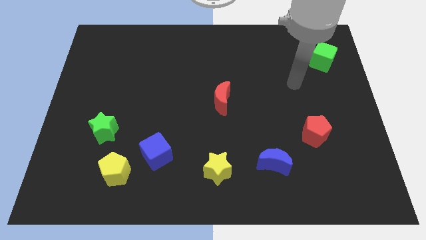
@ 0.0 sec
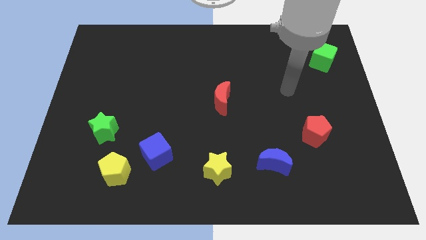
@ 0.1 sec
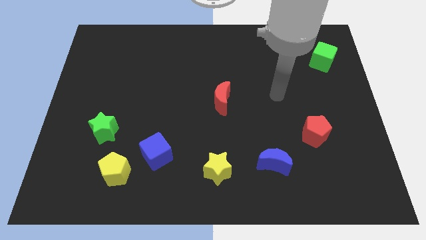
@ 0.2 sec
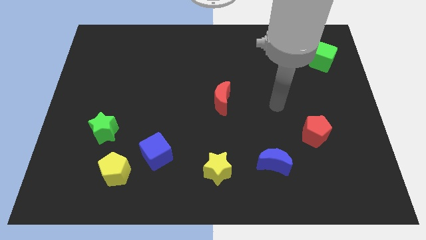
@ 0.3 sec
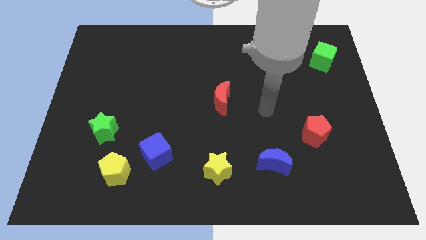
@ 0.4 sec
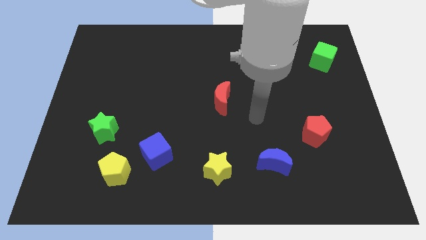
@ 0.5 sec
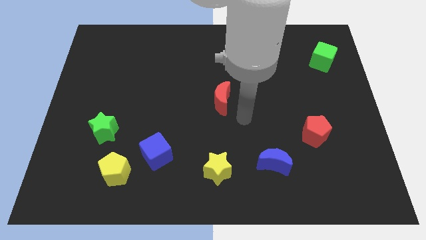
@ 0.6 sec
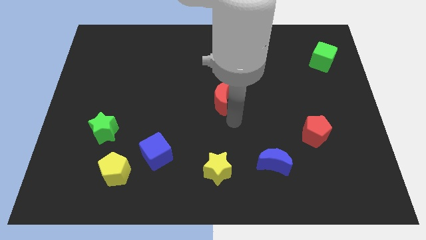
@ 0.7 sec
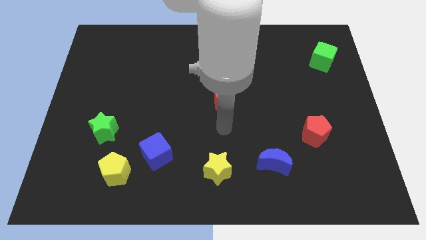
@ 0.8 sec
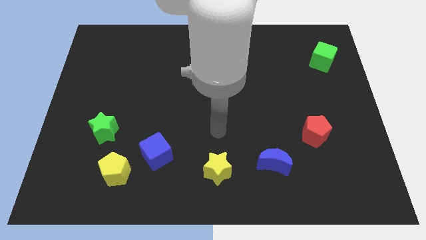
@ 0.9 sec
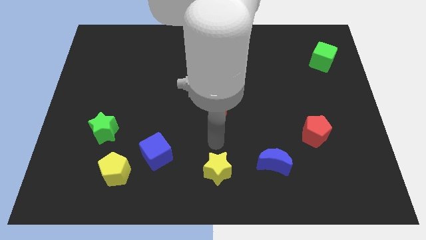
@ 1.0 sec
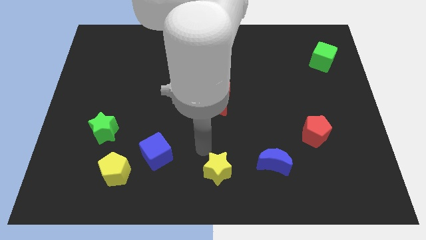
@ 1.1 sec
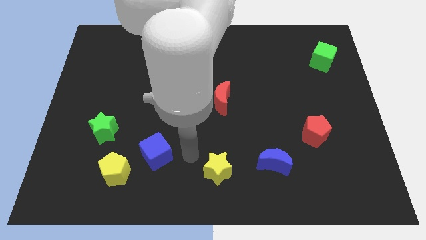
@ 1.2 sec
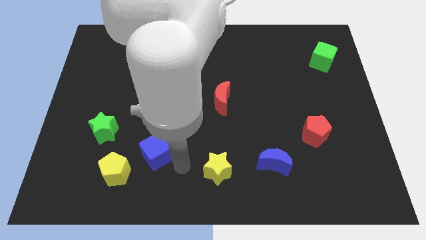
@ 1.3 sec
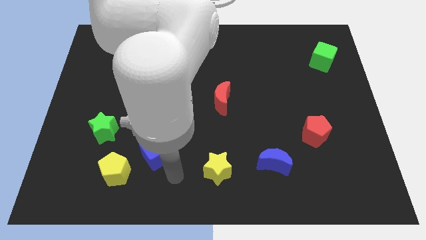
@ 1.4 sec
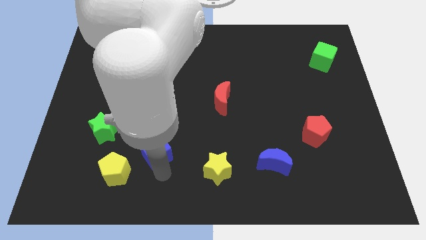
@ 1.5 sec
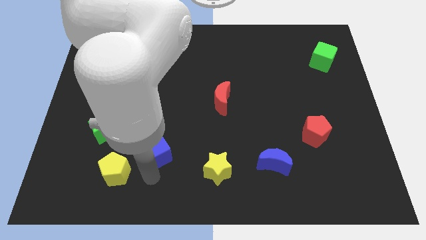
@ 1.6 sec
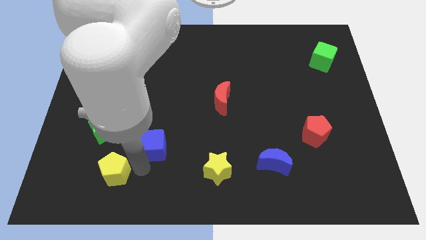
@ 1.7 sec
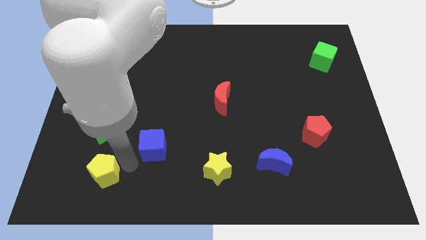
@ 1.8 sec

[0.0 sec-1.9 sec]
pull the blue cube apart from the yellow pentagon

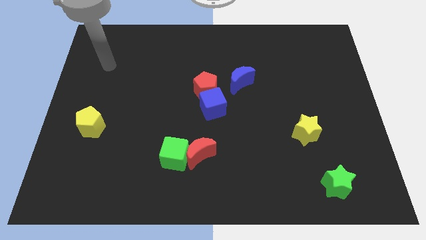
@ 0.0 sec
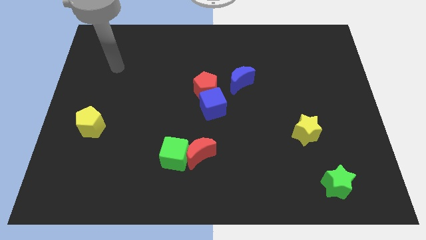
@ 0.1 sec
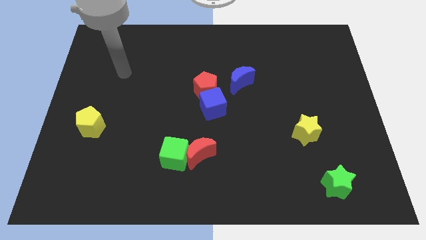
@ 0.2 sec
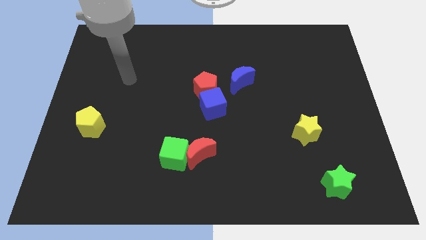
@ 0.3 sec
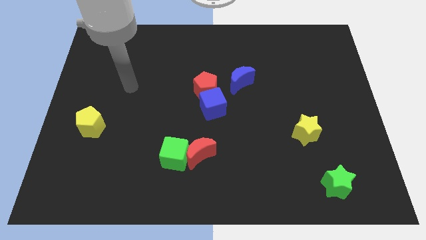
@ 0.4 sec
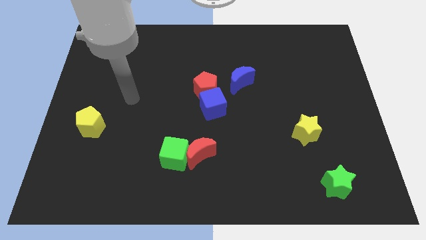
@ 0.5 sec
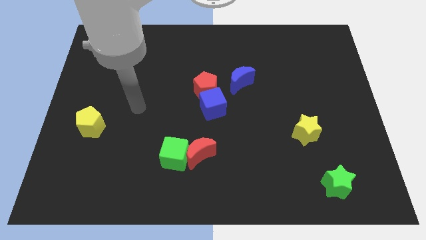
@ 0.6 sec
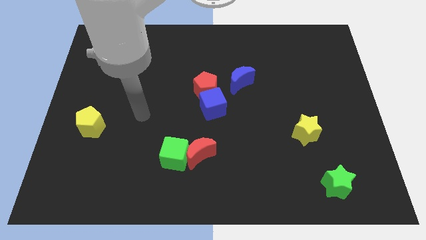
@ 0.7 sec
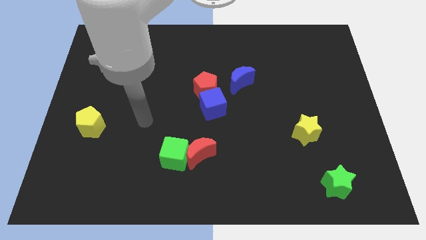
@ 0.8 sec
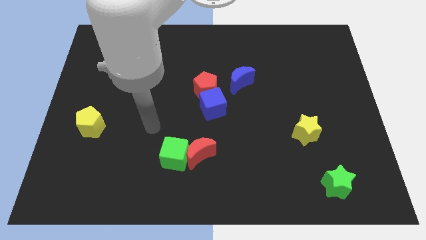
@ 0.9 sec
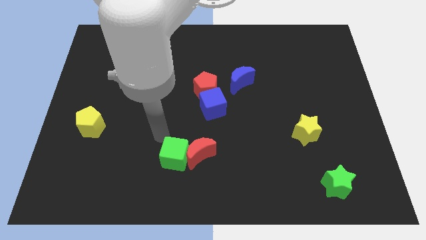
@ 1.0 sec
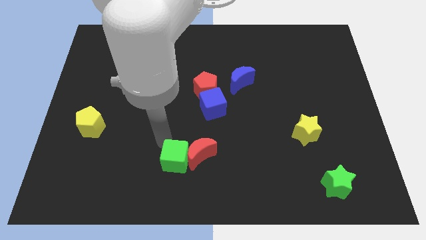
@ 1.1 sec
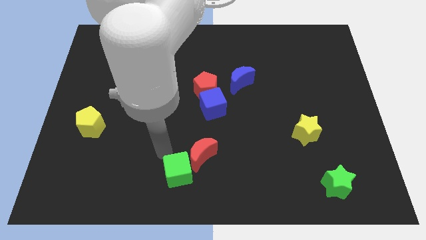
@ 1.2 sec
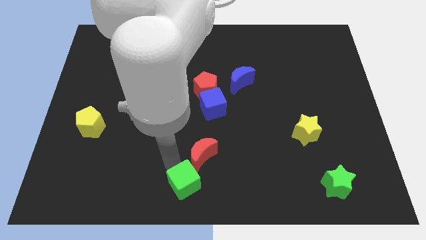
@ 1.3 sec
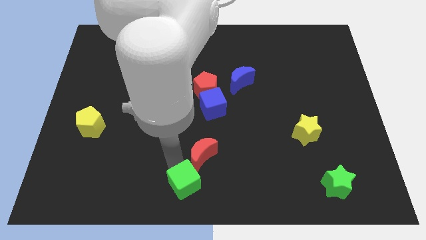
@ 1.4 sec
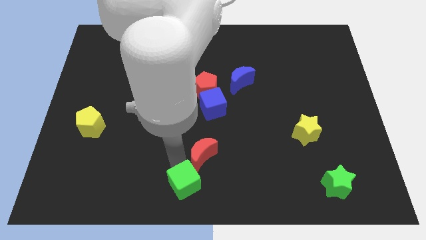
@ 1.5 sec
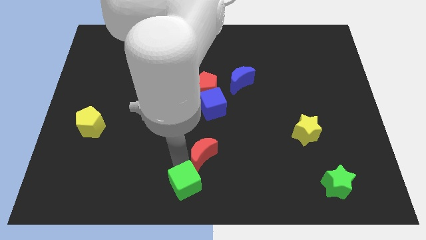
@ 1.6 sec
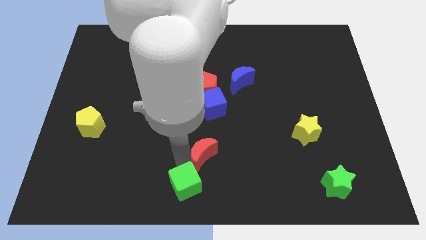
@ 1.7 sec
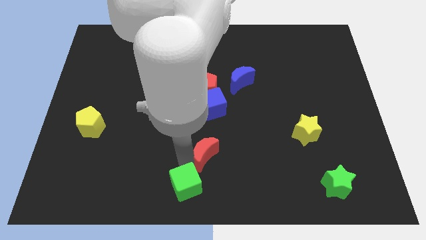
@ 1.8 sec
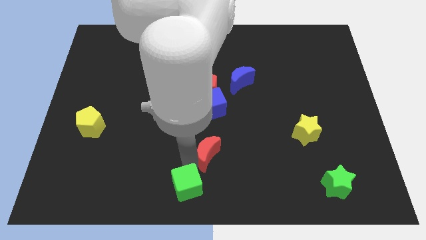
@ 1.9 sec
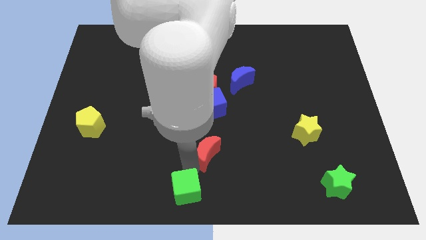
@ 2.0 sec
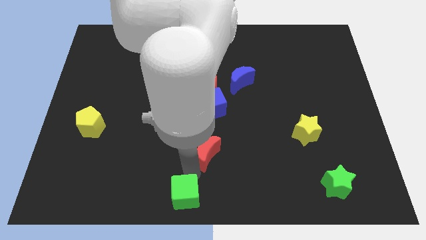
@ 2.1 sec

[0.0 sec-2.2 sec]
pull the red moon apart from the green cube

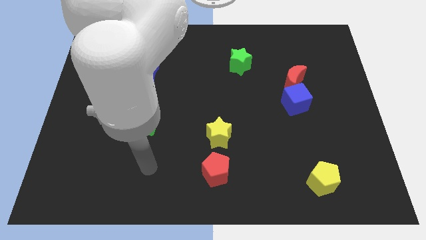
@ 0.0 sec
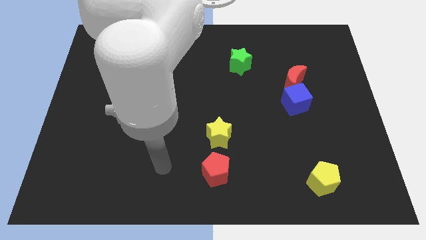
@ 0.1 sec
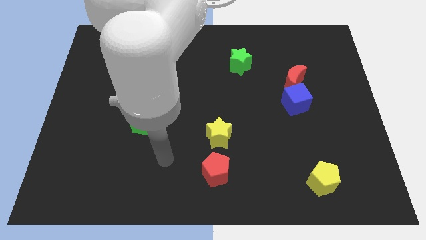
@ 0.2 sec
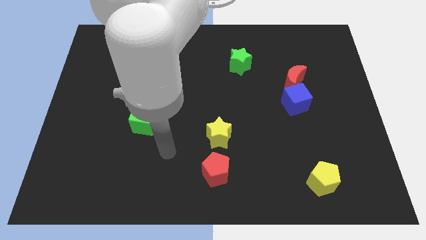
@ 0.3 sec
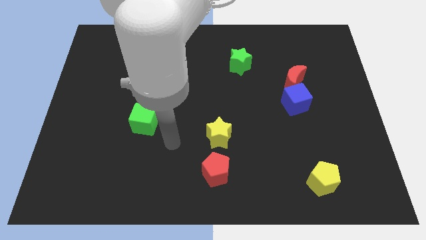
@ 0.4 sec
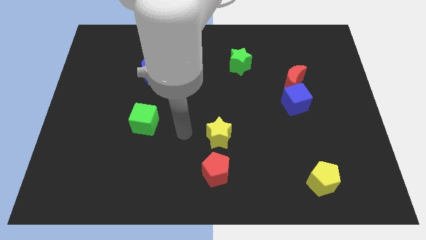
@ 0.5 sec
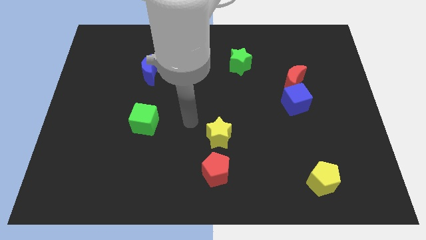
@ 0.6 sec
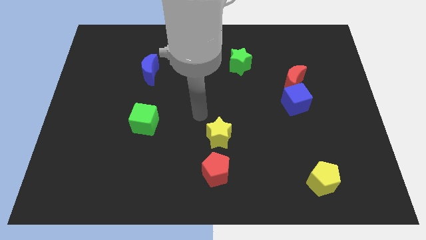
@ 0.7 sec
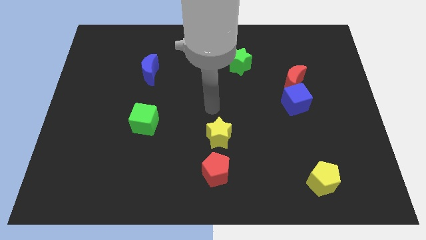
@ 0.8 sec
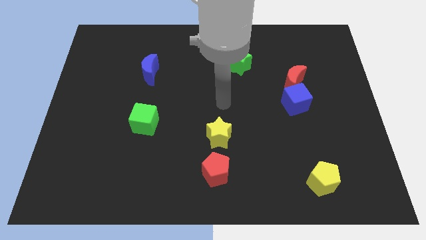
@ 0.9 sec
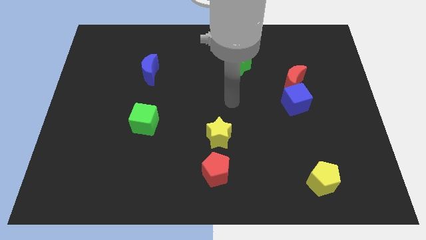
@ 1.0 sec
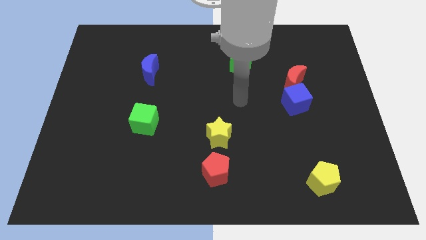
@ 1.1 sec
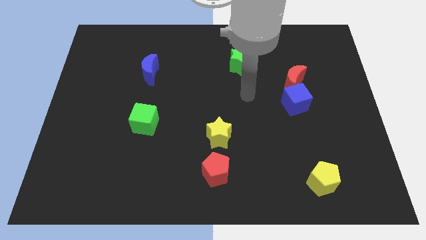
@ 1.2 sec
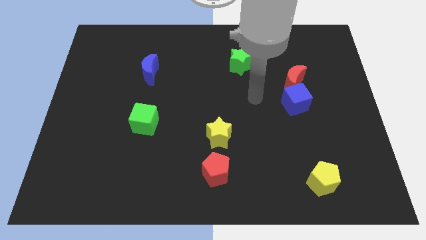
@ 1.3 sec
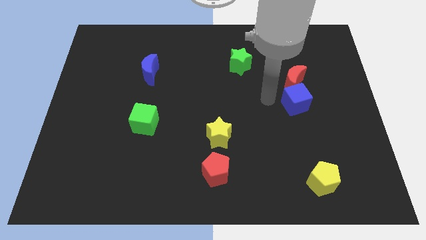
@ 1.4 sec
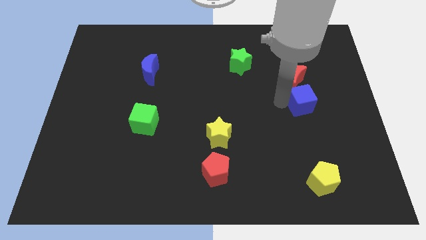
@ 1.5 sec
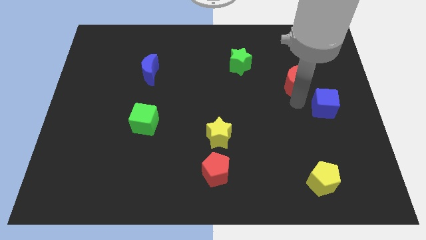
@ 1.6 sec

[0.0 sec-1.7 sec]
move the red moon away from the blue cube

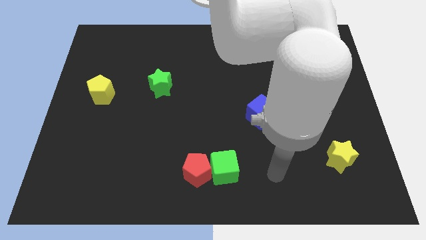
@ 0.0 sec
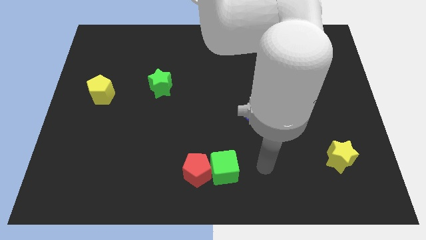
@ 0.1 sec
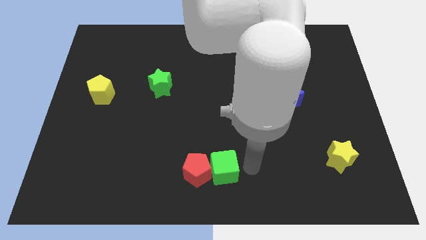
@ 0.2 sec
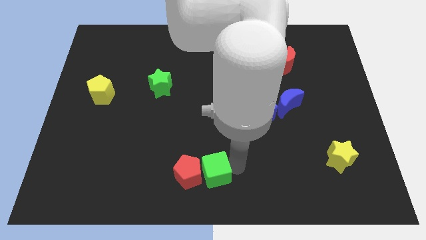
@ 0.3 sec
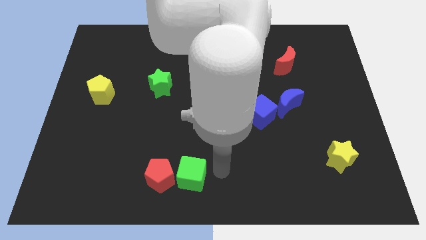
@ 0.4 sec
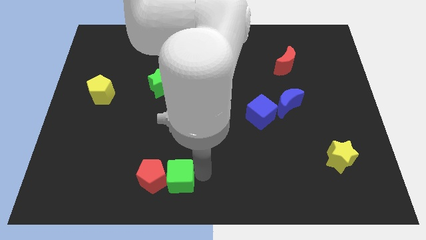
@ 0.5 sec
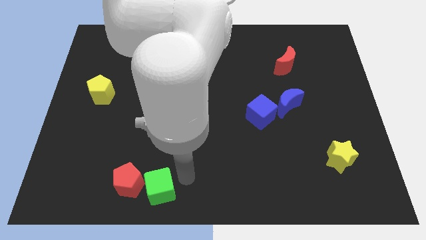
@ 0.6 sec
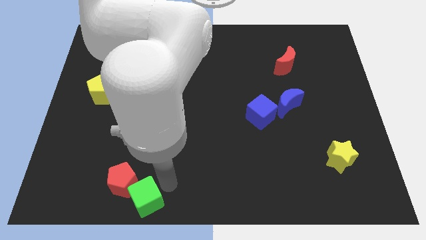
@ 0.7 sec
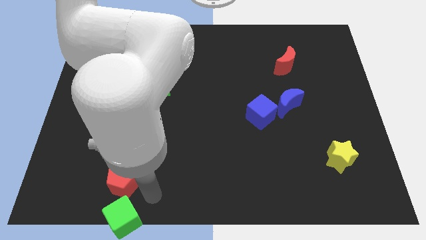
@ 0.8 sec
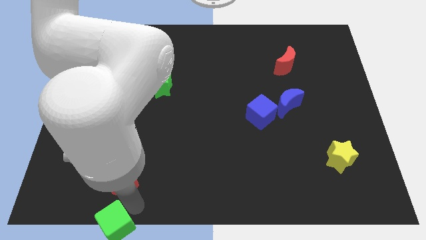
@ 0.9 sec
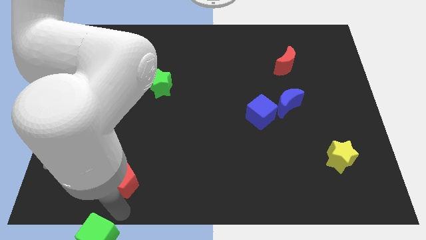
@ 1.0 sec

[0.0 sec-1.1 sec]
separate the red pentagon from the green cube

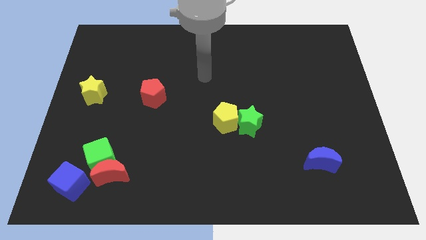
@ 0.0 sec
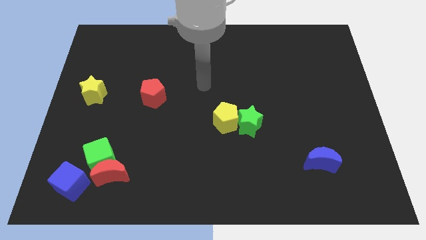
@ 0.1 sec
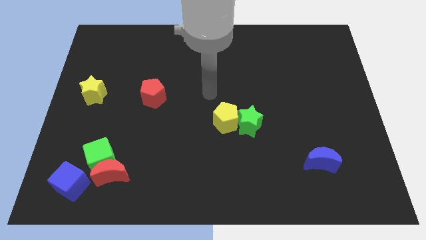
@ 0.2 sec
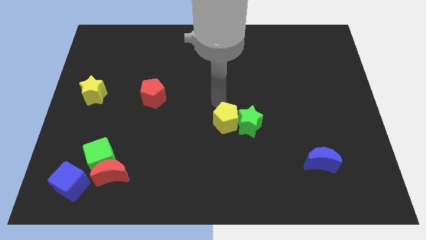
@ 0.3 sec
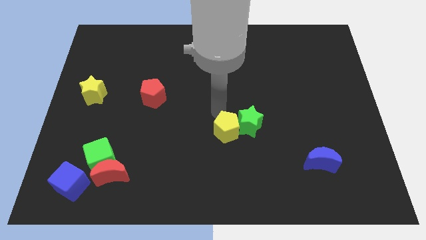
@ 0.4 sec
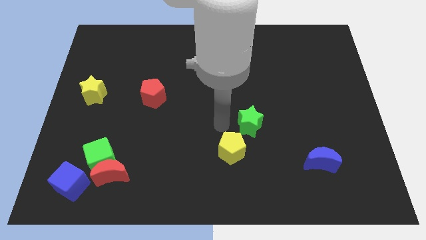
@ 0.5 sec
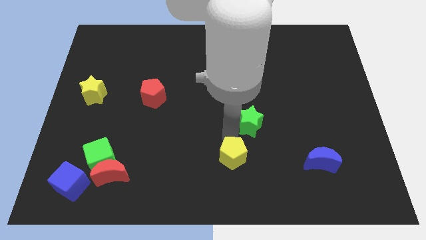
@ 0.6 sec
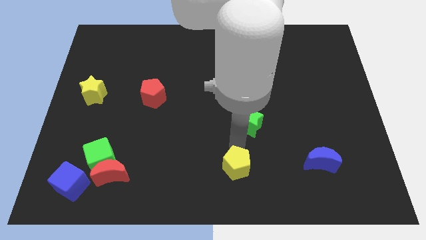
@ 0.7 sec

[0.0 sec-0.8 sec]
move the green star away from the yellow pentagon

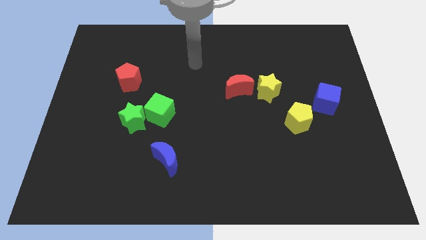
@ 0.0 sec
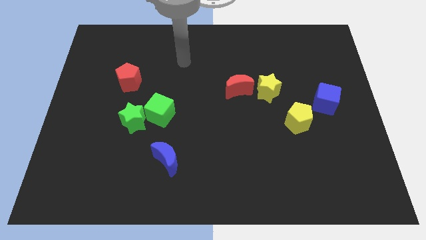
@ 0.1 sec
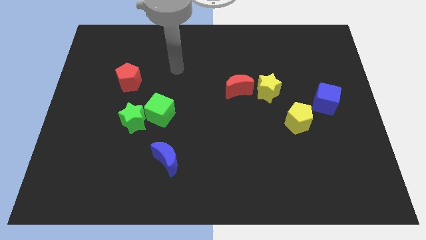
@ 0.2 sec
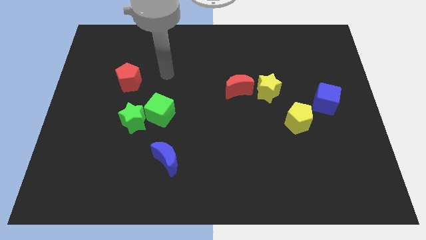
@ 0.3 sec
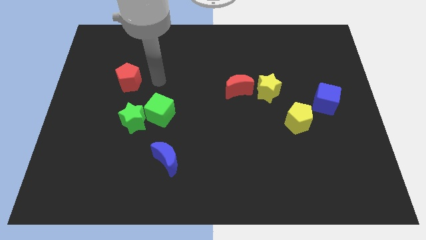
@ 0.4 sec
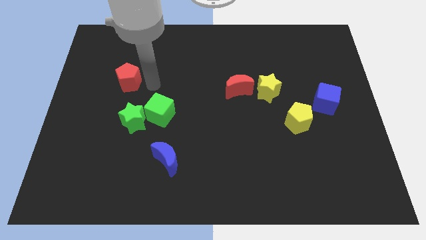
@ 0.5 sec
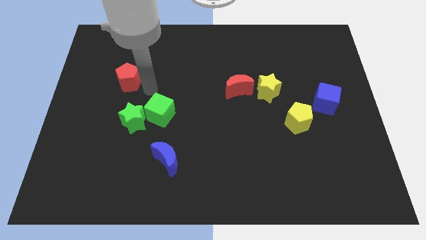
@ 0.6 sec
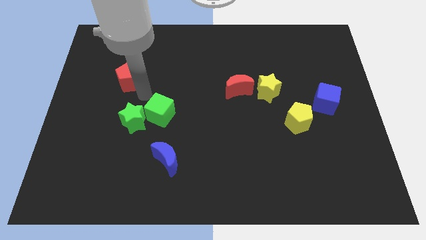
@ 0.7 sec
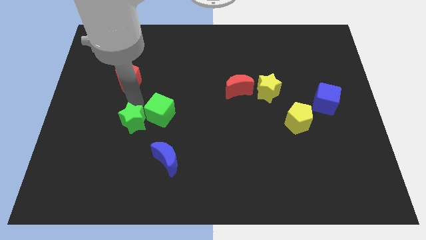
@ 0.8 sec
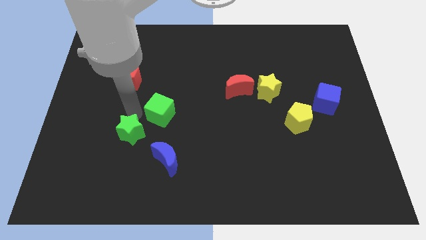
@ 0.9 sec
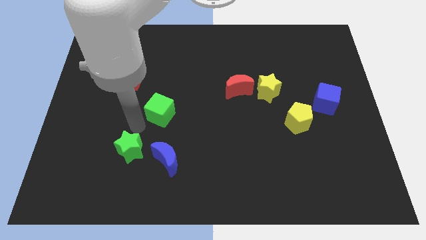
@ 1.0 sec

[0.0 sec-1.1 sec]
separate the green cube from the green star

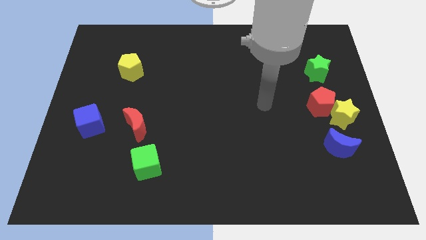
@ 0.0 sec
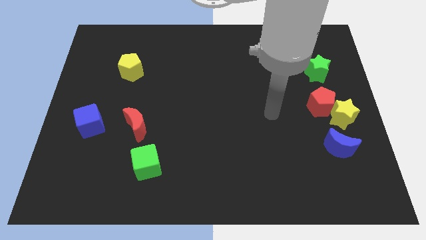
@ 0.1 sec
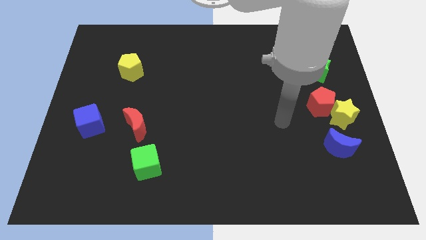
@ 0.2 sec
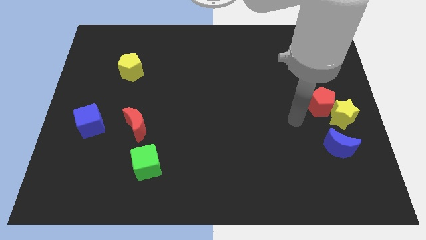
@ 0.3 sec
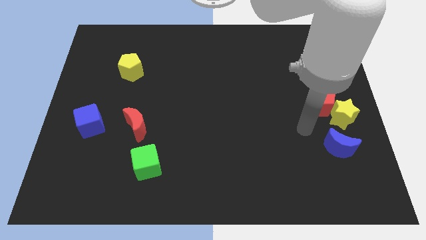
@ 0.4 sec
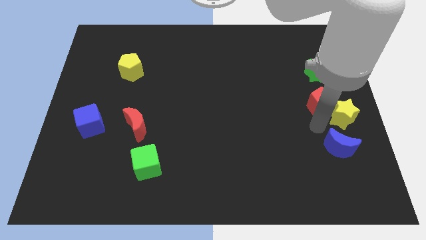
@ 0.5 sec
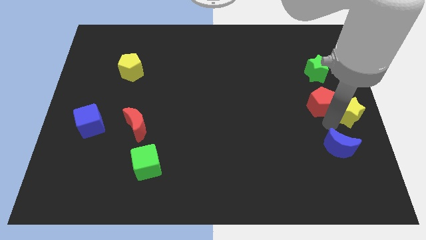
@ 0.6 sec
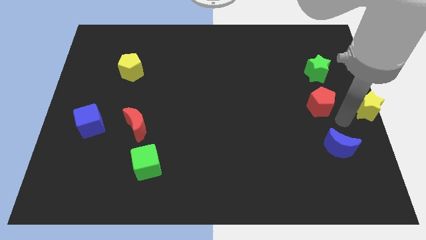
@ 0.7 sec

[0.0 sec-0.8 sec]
separate the red pentagon from the yellow star
